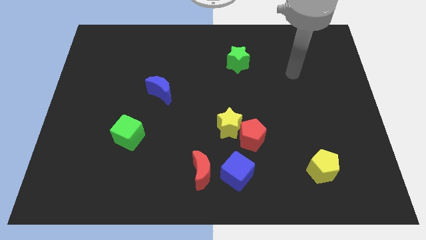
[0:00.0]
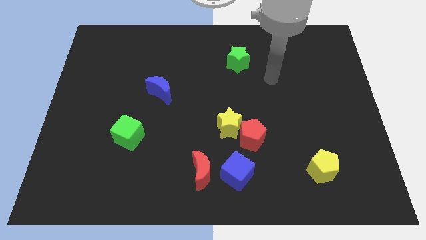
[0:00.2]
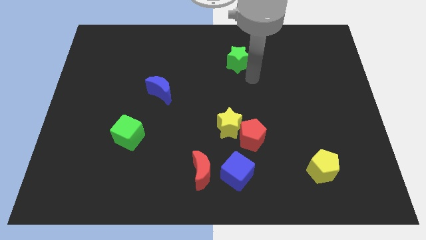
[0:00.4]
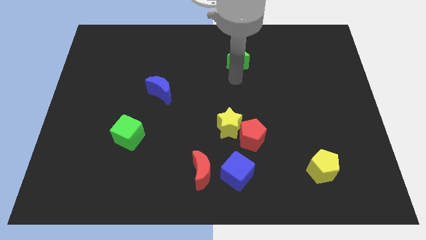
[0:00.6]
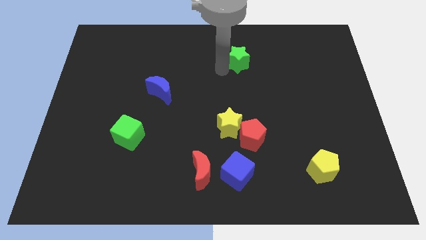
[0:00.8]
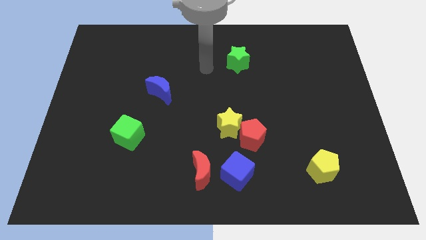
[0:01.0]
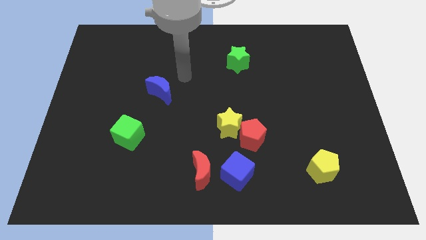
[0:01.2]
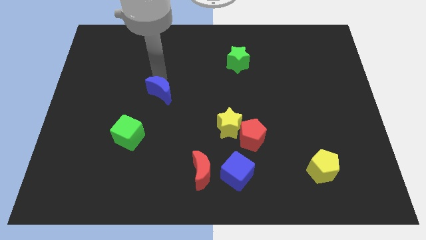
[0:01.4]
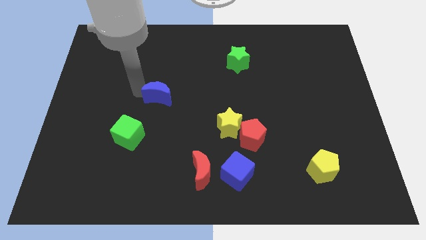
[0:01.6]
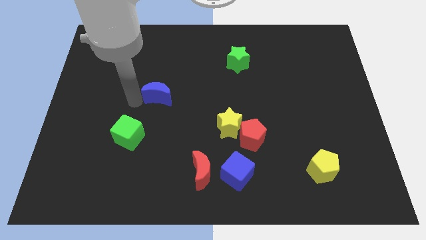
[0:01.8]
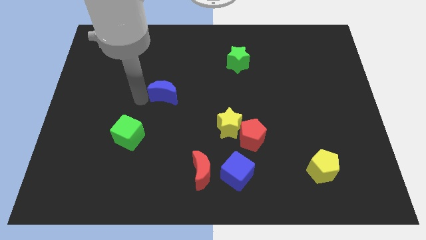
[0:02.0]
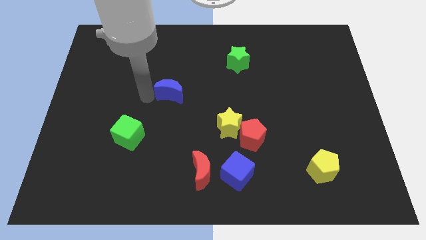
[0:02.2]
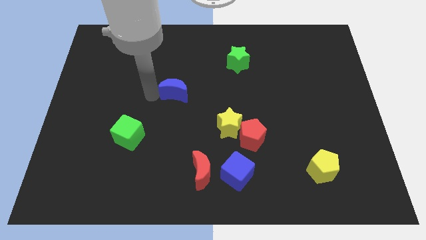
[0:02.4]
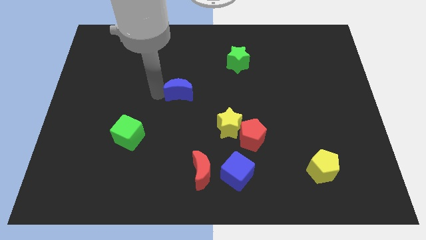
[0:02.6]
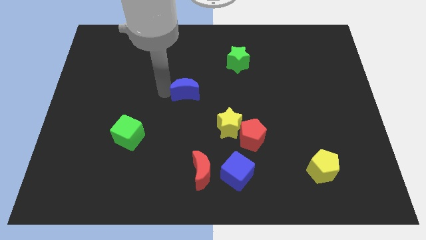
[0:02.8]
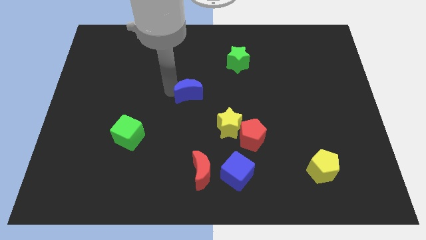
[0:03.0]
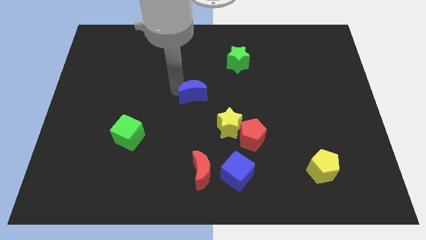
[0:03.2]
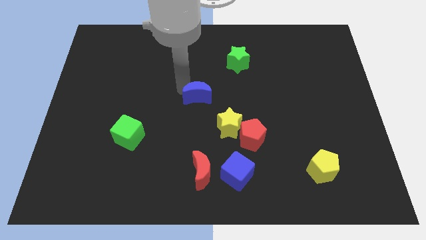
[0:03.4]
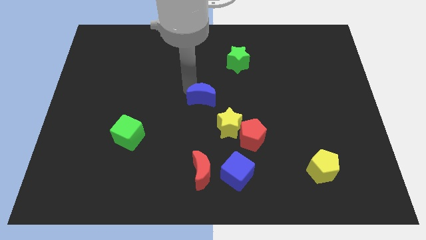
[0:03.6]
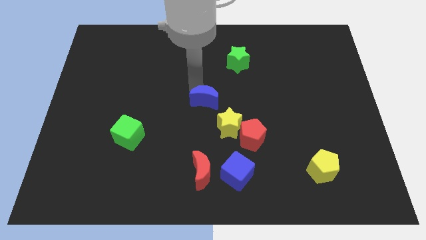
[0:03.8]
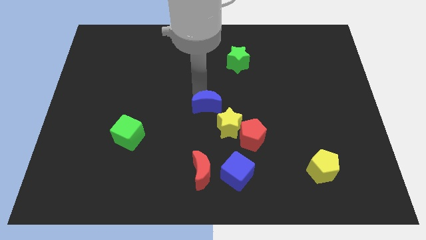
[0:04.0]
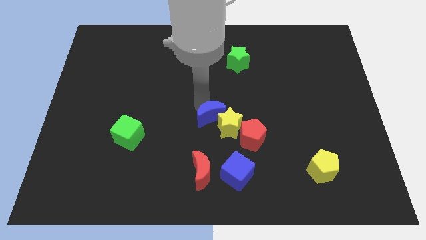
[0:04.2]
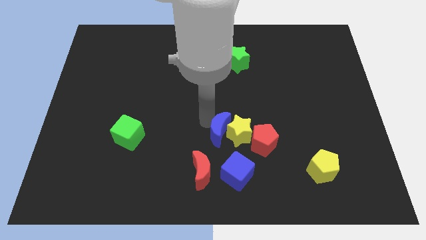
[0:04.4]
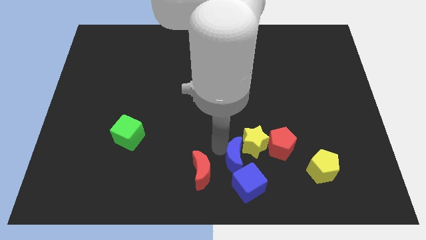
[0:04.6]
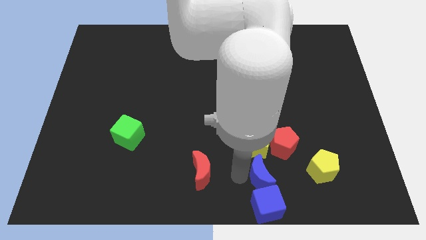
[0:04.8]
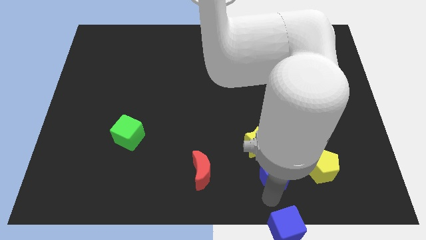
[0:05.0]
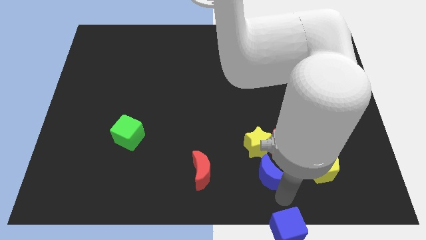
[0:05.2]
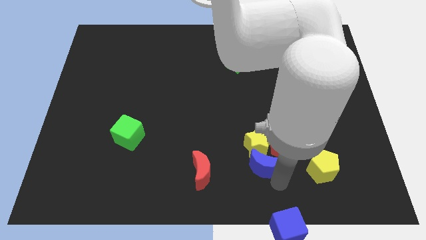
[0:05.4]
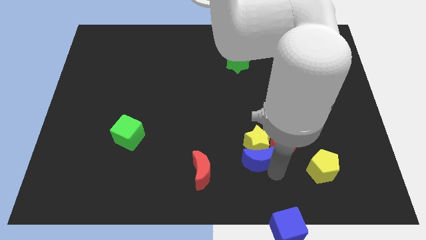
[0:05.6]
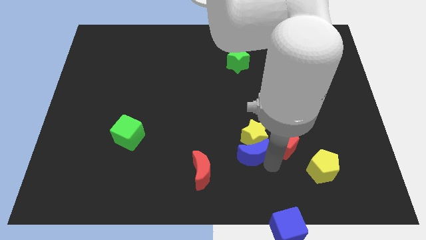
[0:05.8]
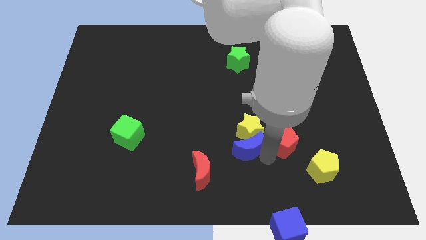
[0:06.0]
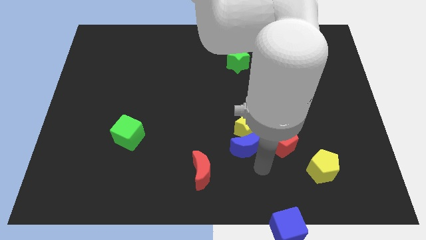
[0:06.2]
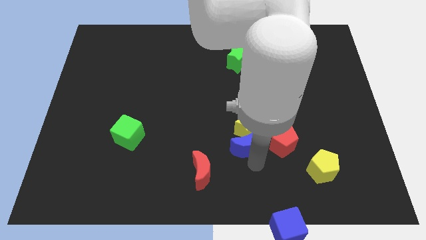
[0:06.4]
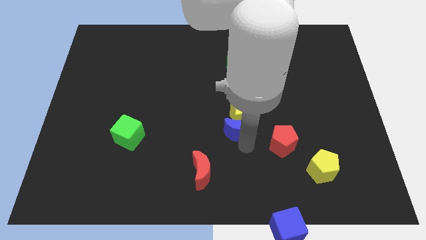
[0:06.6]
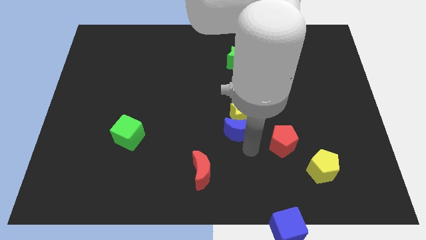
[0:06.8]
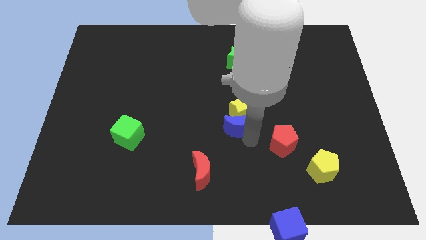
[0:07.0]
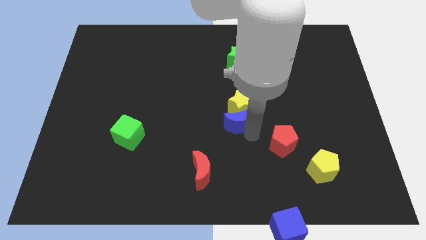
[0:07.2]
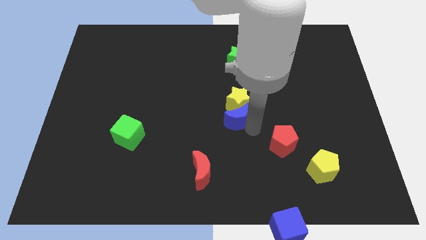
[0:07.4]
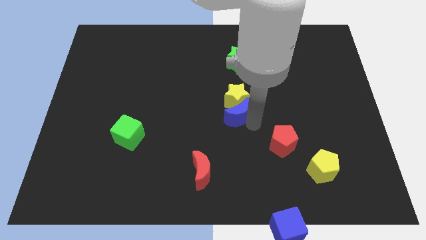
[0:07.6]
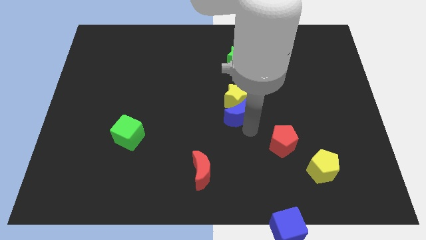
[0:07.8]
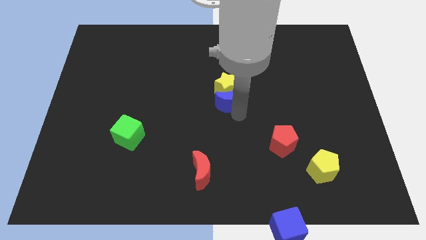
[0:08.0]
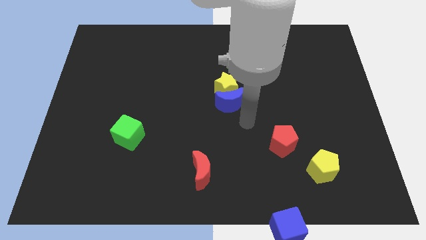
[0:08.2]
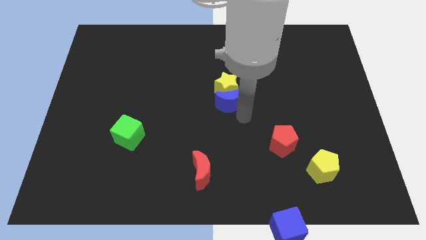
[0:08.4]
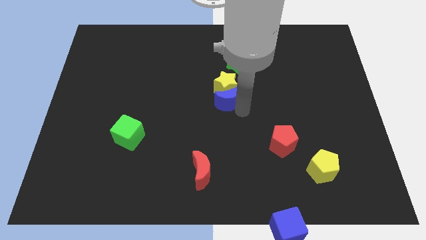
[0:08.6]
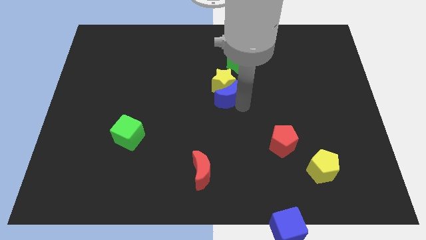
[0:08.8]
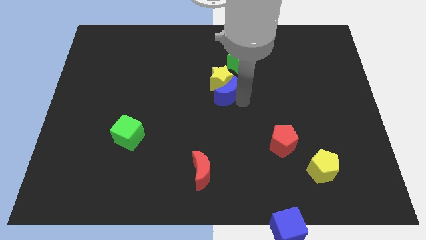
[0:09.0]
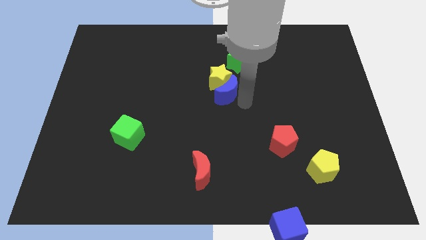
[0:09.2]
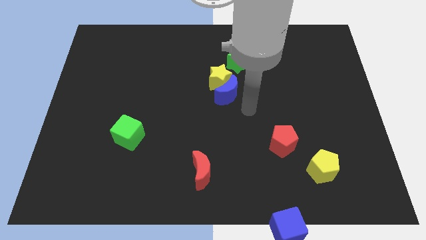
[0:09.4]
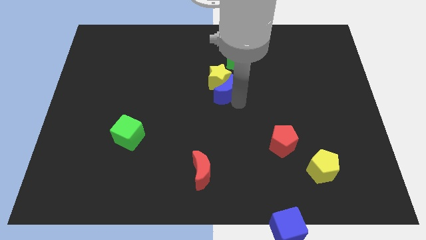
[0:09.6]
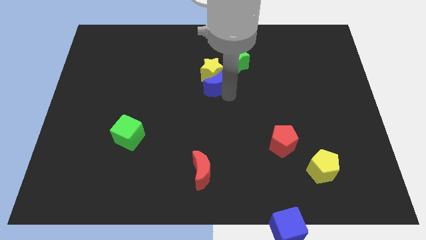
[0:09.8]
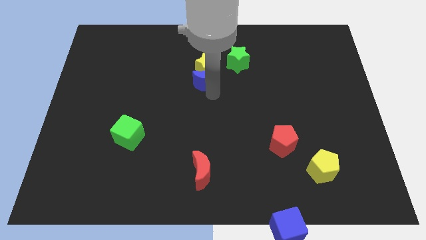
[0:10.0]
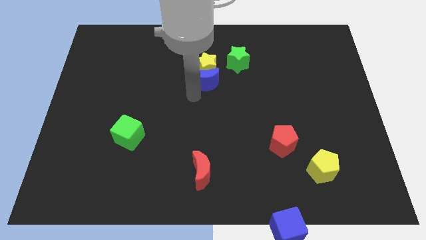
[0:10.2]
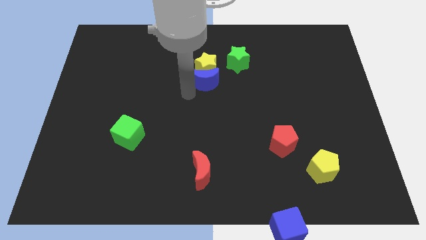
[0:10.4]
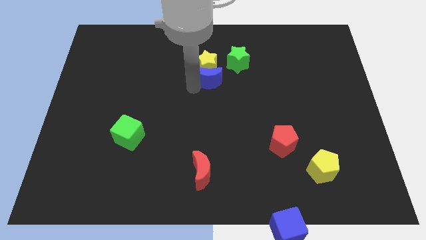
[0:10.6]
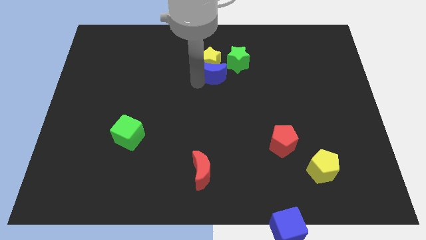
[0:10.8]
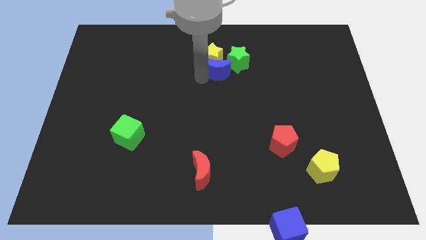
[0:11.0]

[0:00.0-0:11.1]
push the blue moon close to the green star

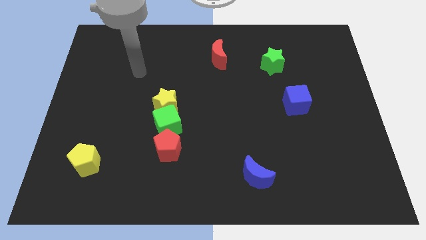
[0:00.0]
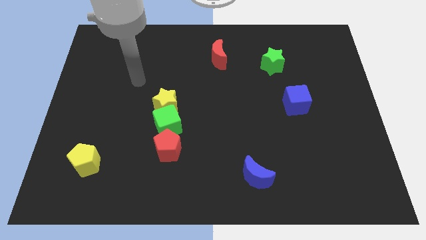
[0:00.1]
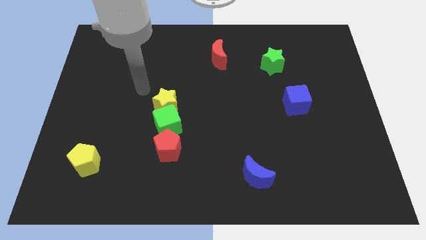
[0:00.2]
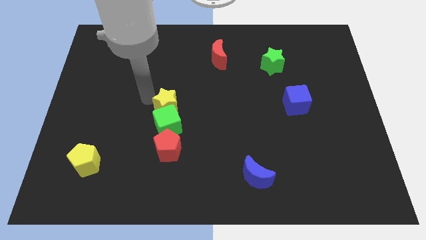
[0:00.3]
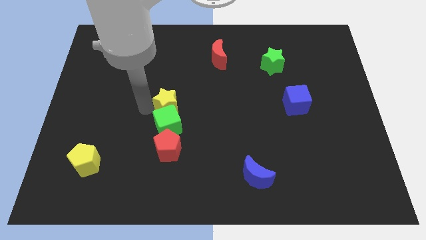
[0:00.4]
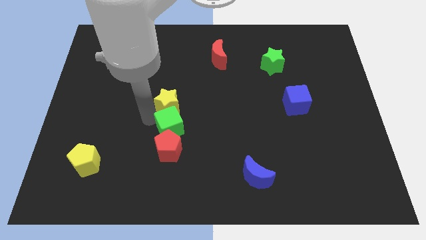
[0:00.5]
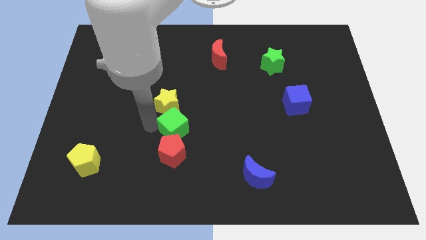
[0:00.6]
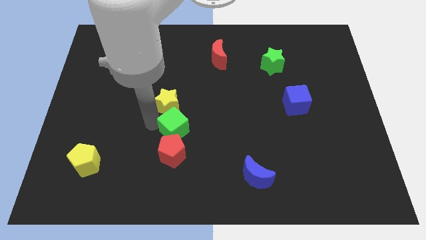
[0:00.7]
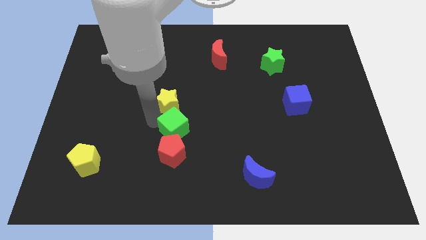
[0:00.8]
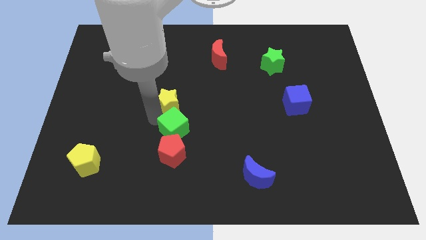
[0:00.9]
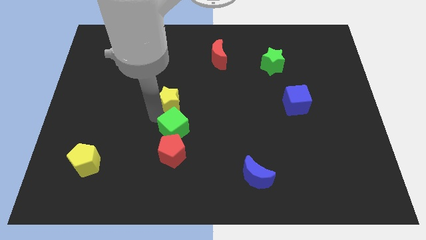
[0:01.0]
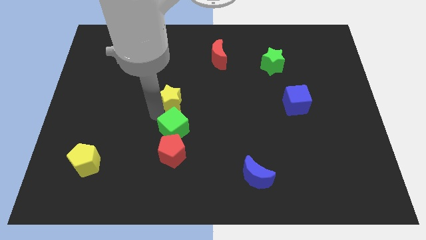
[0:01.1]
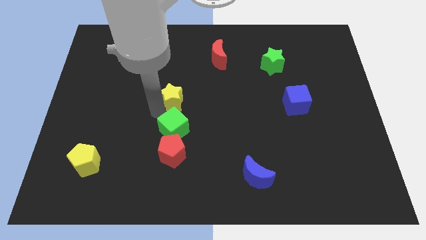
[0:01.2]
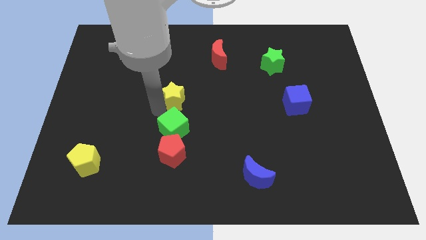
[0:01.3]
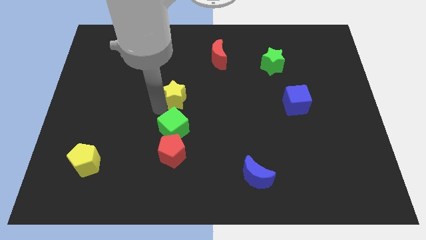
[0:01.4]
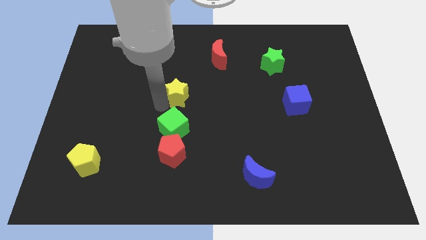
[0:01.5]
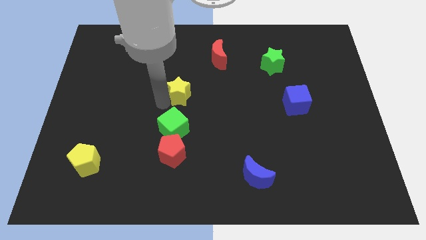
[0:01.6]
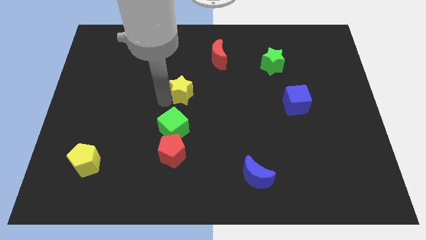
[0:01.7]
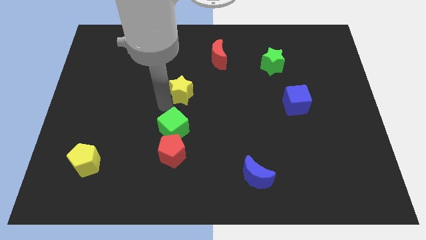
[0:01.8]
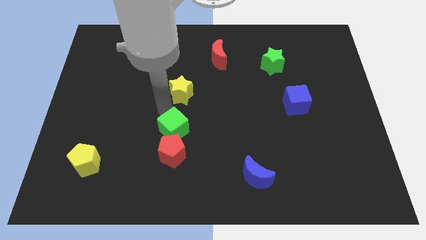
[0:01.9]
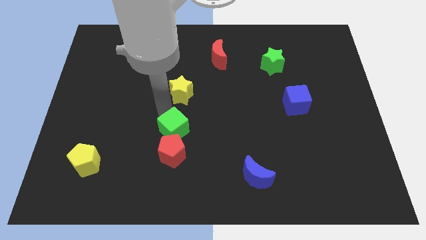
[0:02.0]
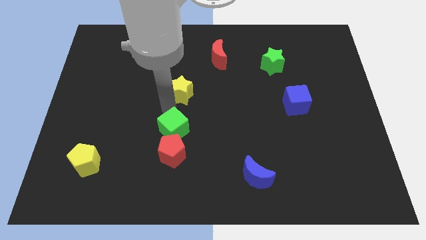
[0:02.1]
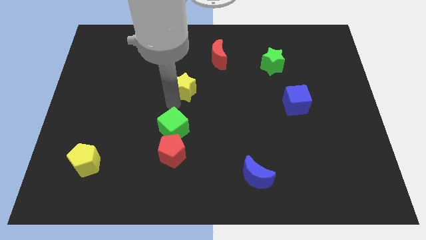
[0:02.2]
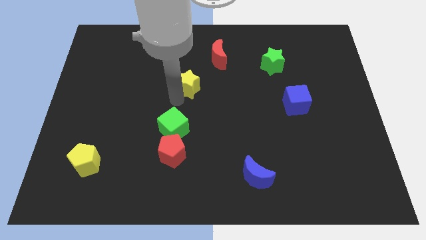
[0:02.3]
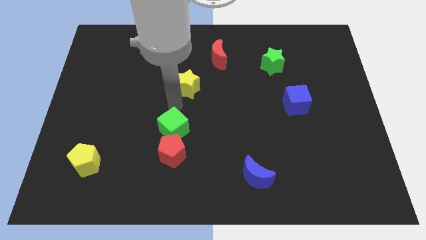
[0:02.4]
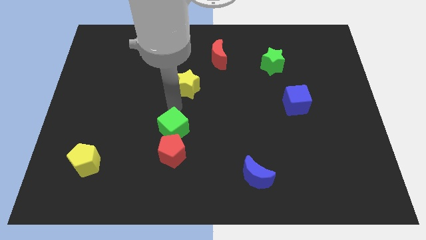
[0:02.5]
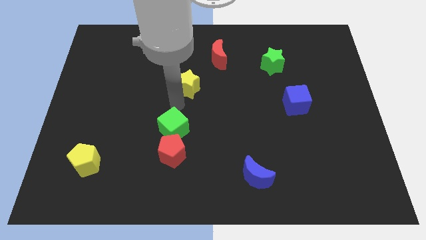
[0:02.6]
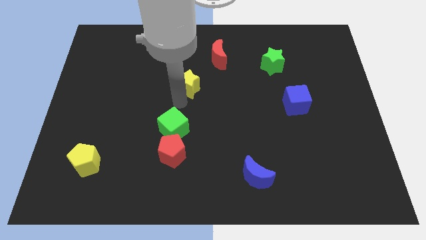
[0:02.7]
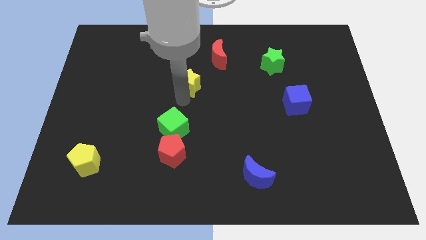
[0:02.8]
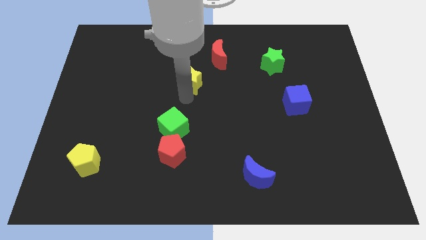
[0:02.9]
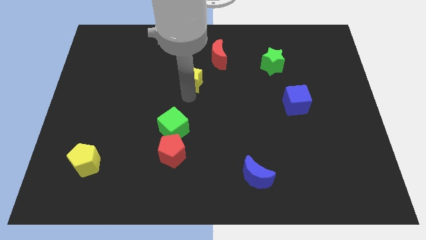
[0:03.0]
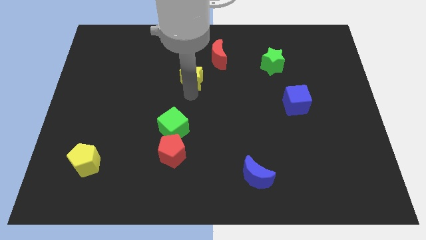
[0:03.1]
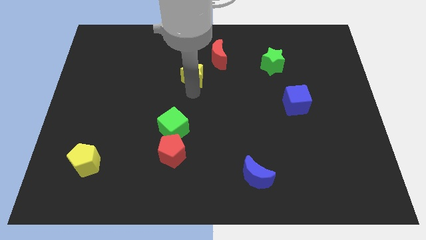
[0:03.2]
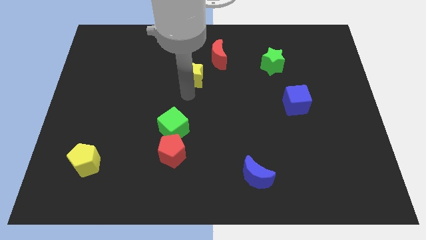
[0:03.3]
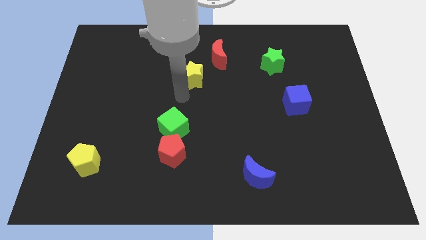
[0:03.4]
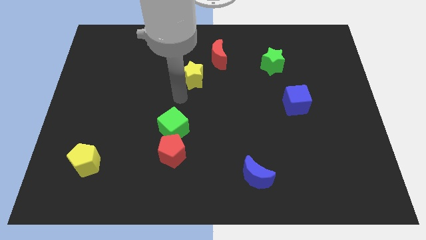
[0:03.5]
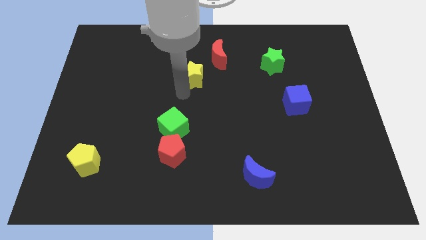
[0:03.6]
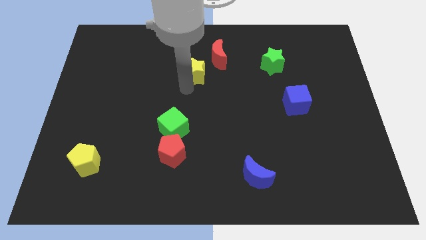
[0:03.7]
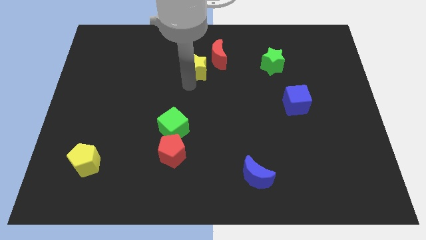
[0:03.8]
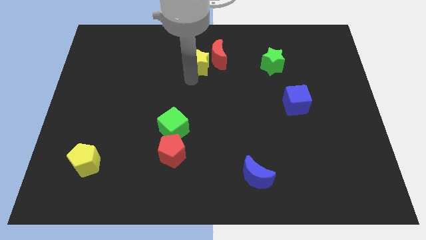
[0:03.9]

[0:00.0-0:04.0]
put the yellow star next to the red moon
